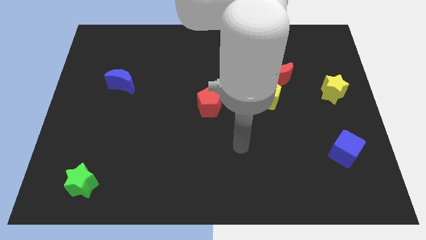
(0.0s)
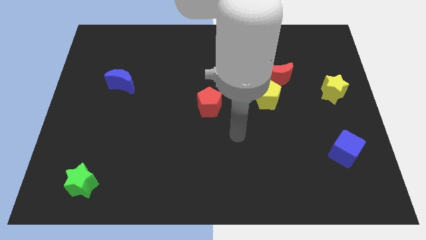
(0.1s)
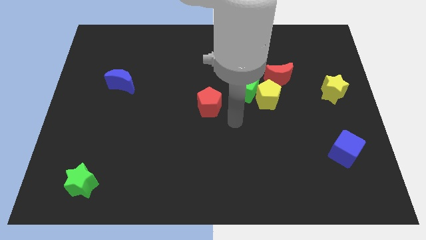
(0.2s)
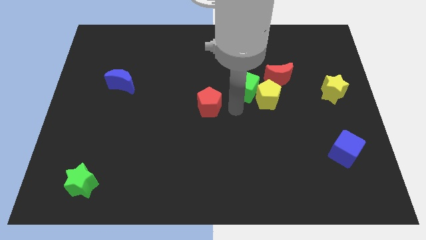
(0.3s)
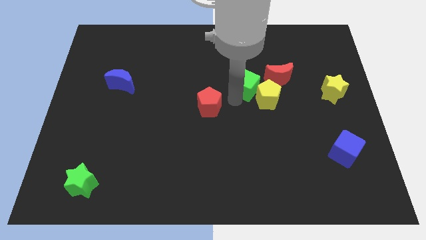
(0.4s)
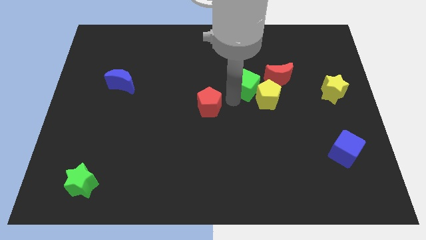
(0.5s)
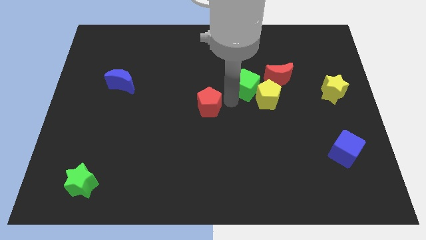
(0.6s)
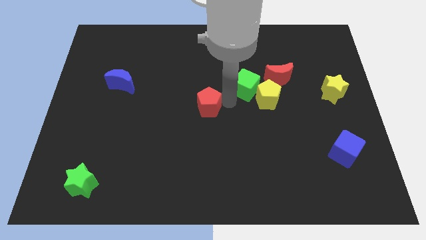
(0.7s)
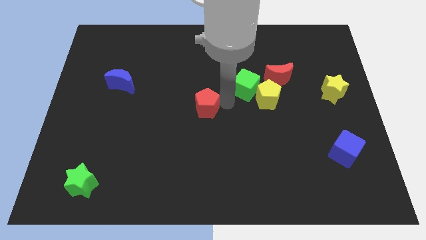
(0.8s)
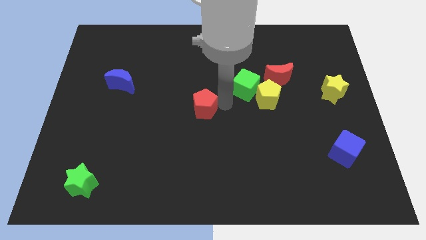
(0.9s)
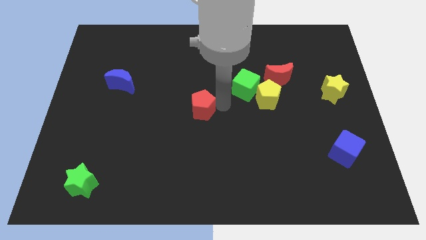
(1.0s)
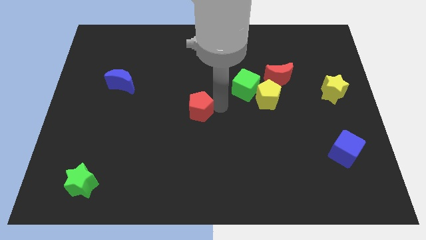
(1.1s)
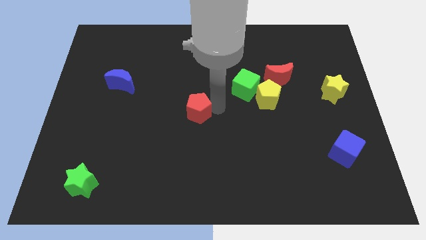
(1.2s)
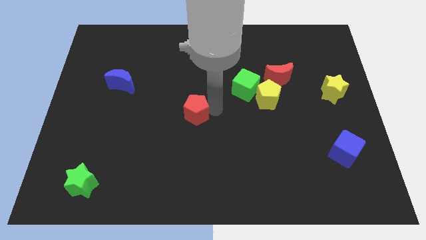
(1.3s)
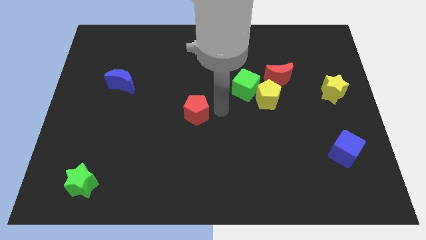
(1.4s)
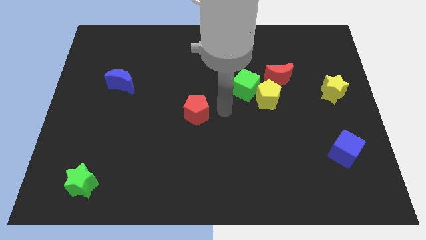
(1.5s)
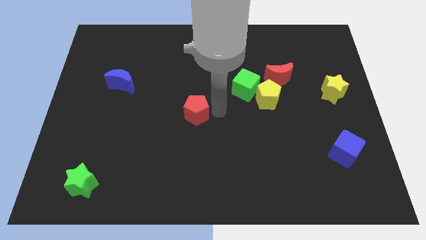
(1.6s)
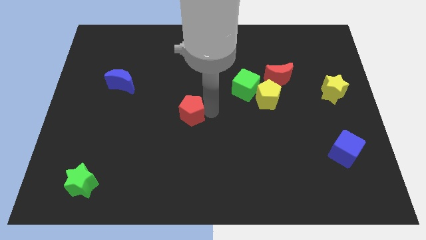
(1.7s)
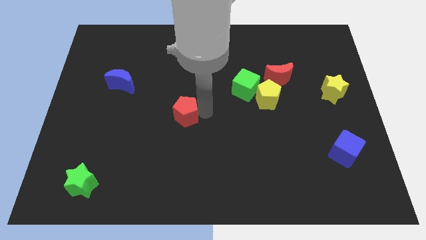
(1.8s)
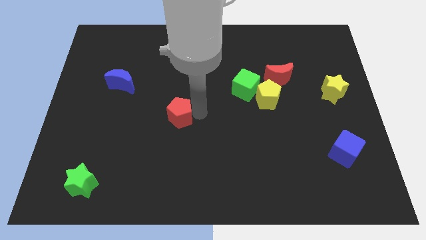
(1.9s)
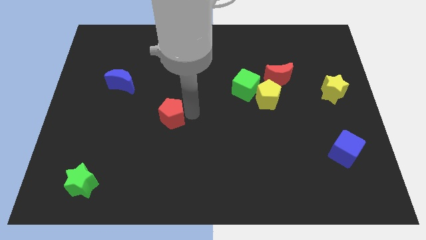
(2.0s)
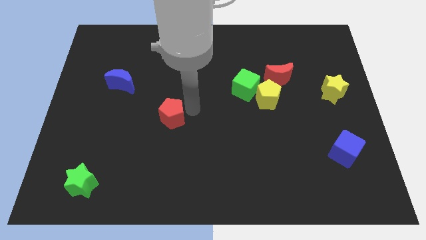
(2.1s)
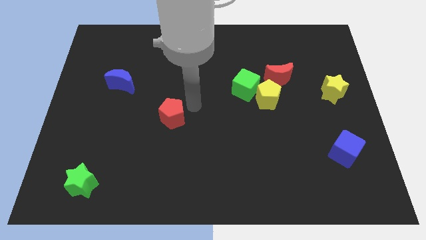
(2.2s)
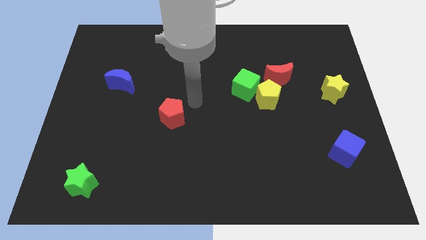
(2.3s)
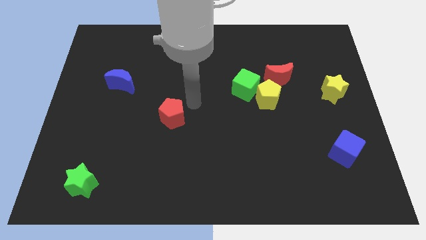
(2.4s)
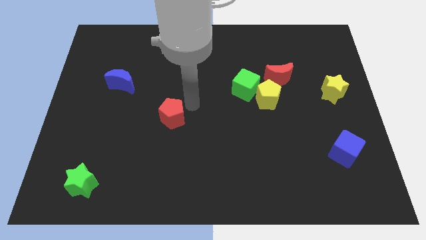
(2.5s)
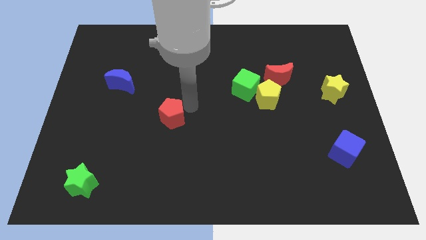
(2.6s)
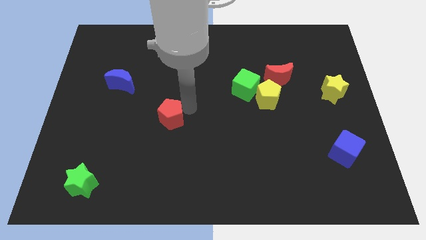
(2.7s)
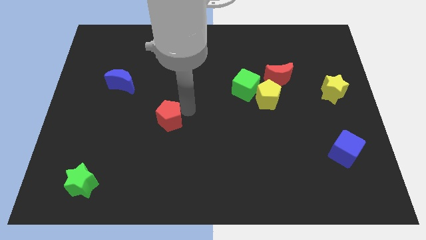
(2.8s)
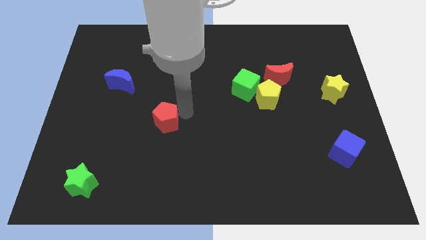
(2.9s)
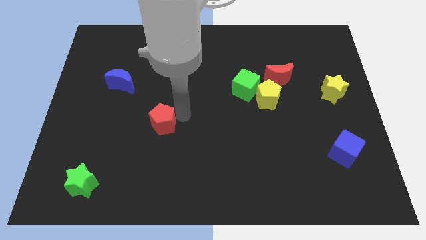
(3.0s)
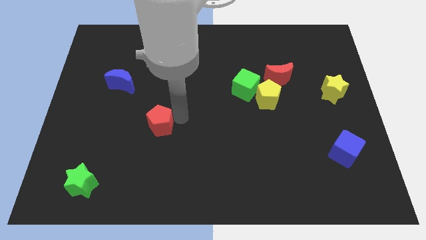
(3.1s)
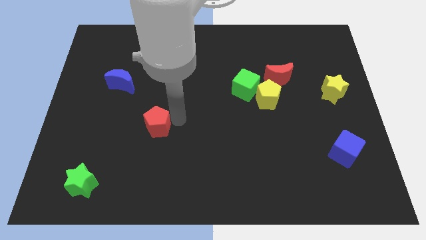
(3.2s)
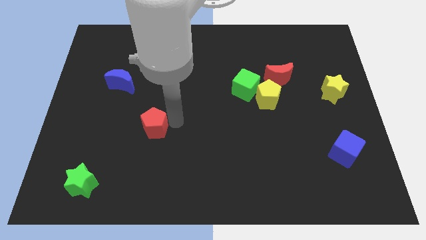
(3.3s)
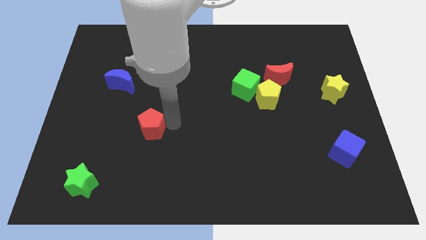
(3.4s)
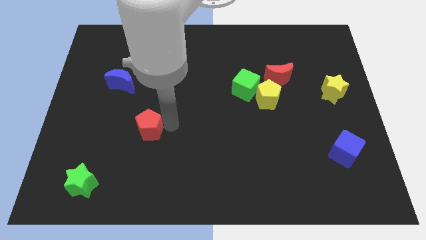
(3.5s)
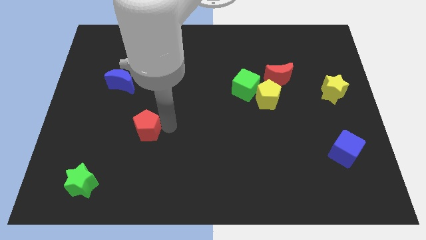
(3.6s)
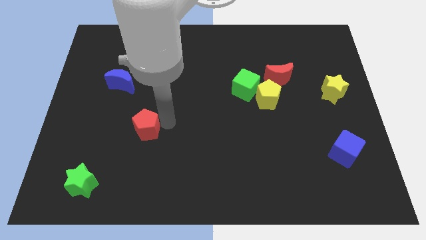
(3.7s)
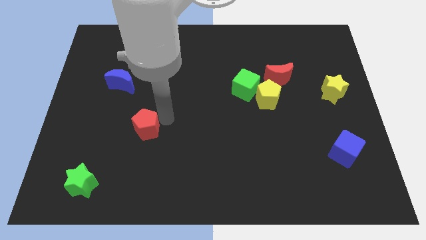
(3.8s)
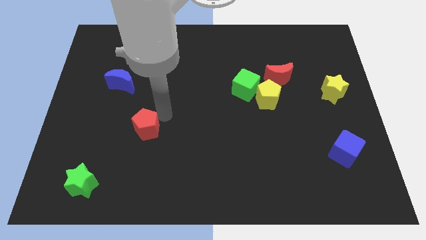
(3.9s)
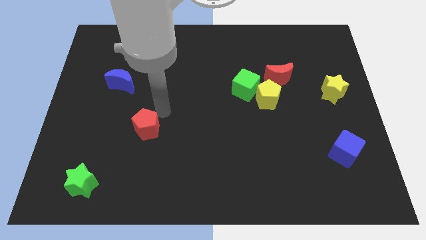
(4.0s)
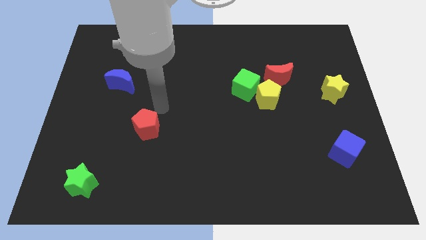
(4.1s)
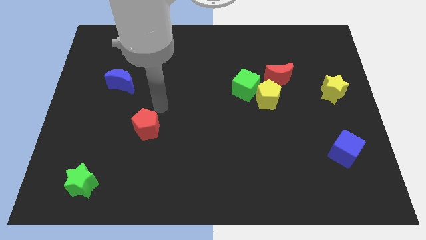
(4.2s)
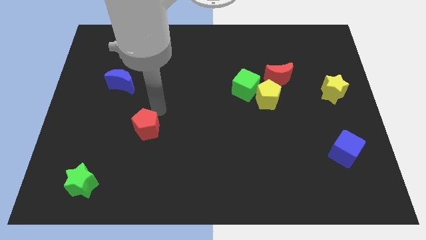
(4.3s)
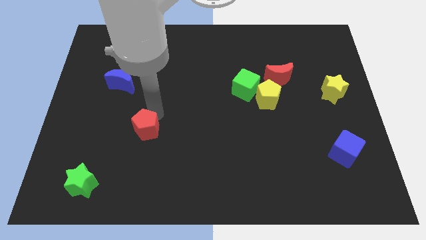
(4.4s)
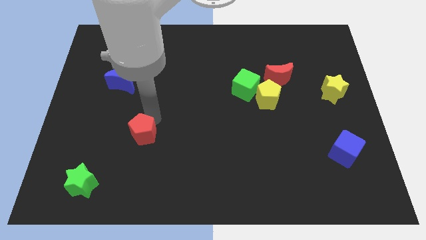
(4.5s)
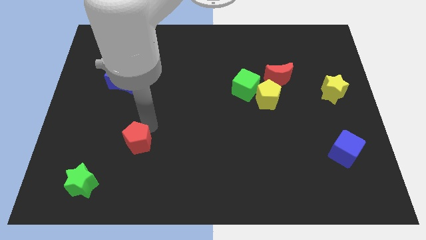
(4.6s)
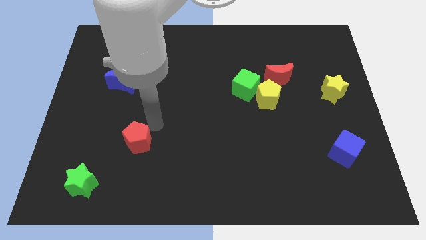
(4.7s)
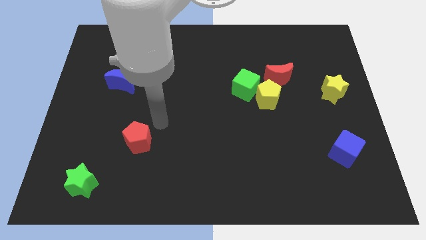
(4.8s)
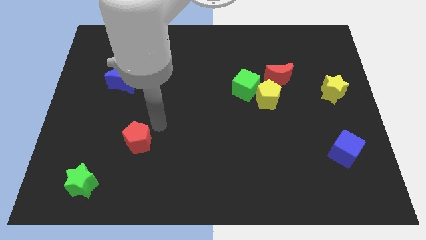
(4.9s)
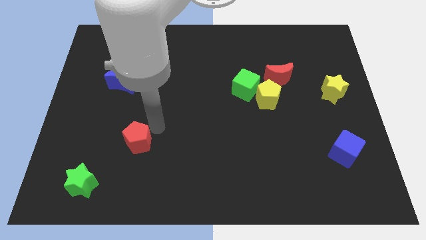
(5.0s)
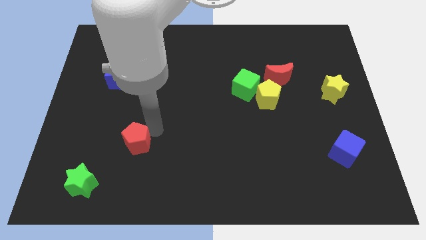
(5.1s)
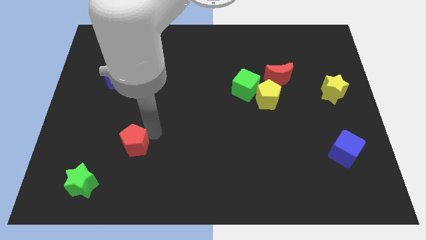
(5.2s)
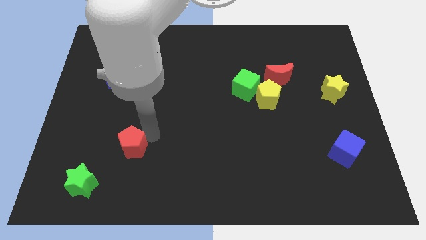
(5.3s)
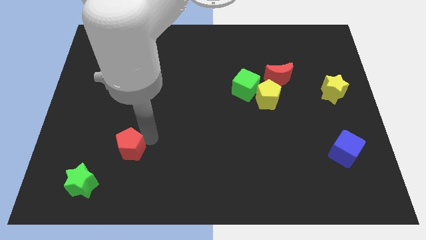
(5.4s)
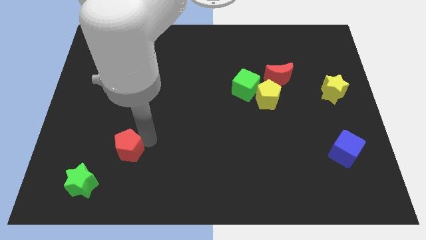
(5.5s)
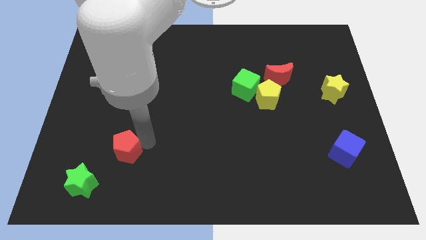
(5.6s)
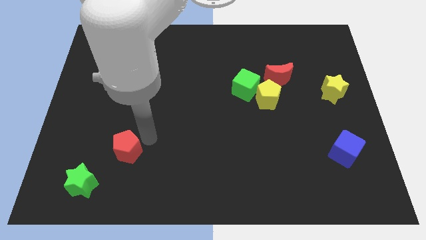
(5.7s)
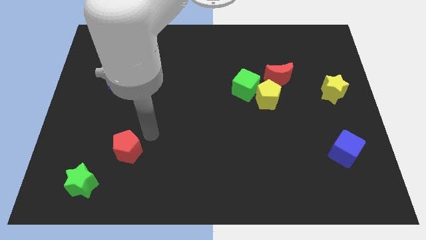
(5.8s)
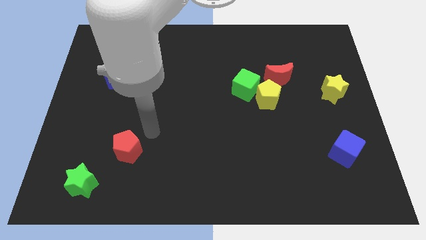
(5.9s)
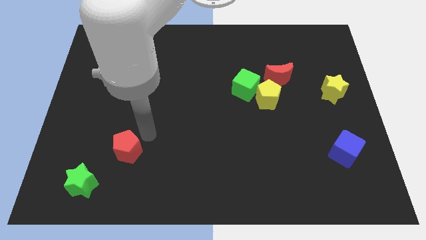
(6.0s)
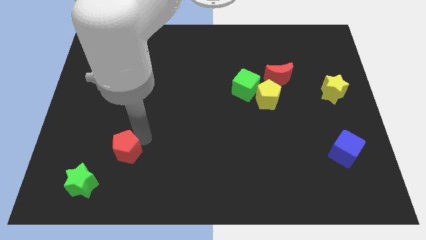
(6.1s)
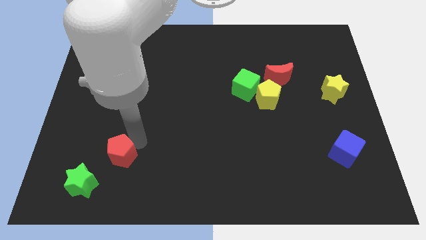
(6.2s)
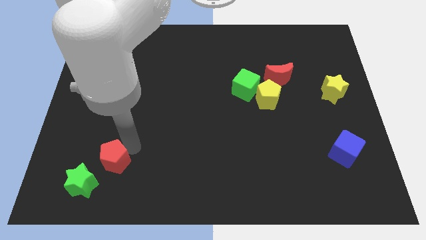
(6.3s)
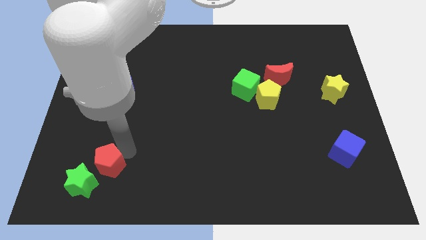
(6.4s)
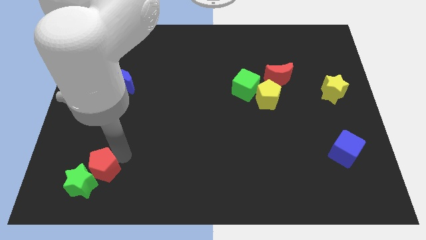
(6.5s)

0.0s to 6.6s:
push the red pentagon next to the green star
